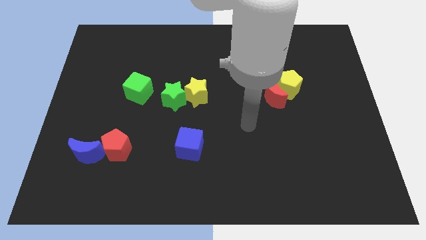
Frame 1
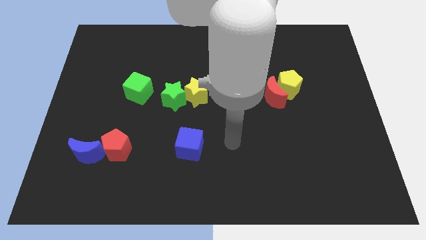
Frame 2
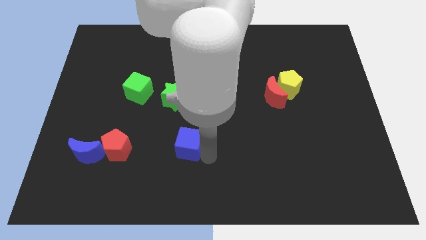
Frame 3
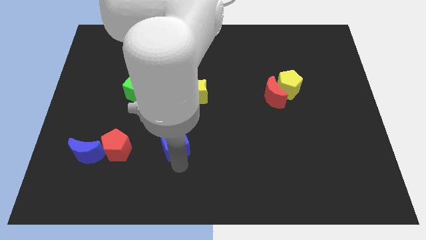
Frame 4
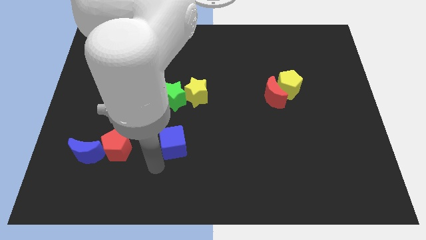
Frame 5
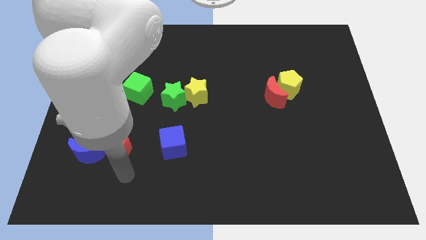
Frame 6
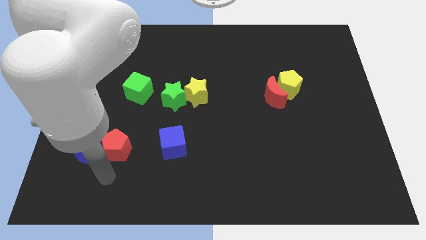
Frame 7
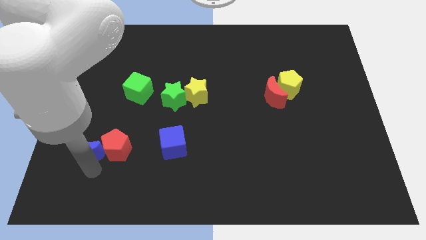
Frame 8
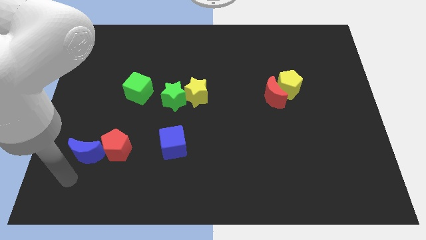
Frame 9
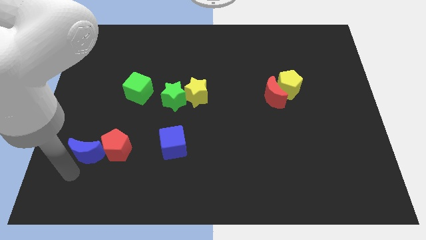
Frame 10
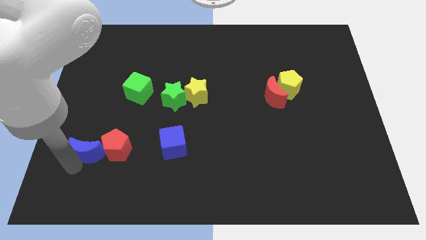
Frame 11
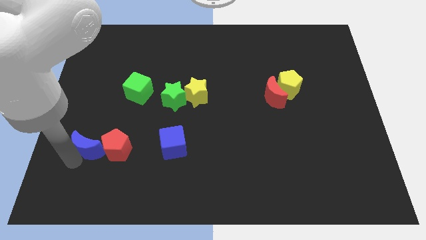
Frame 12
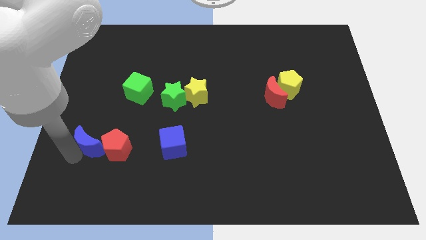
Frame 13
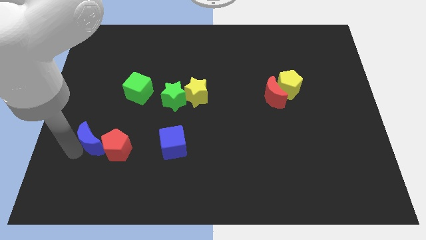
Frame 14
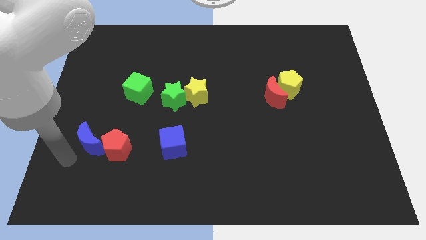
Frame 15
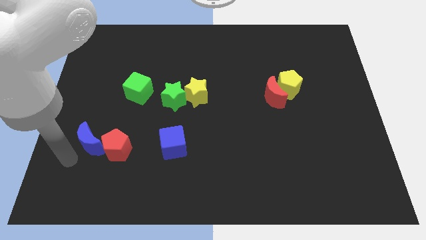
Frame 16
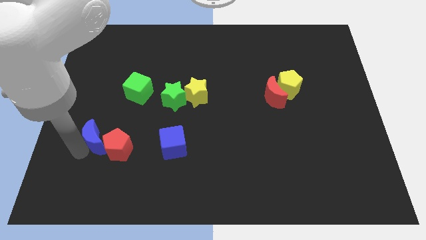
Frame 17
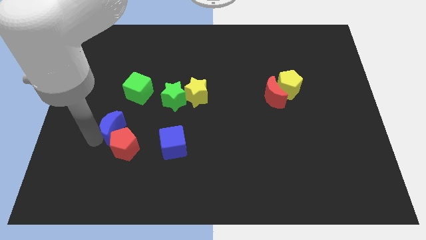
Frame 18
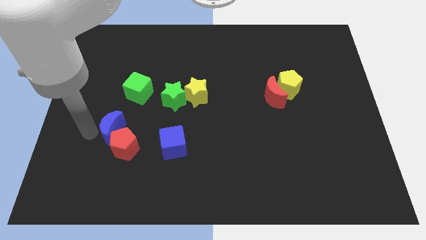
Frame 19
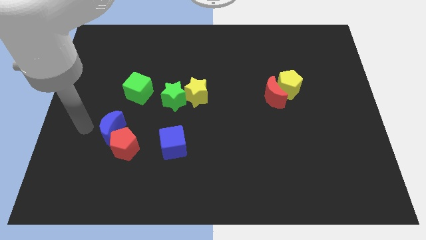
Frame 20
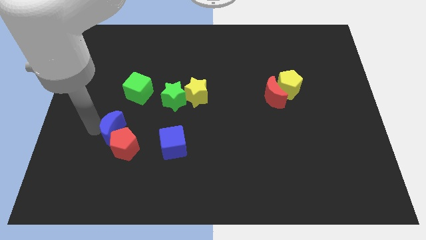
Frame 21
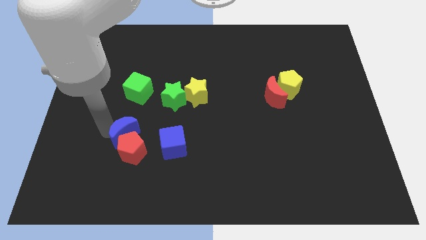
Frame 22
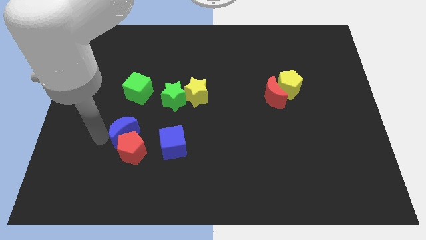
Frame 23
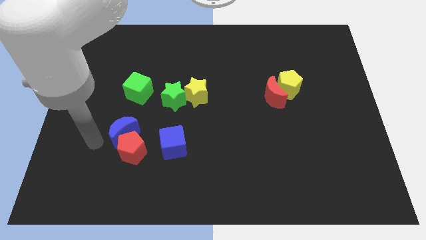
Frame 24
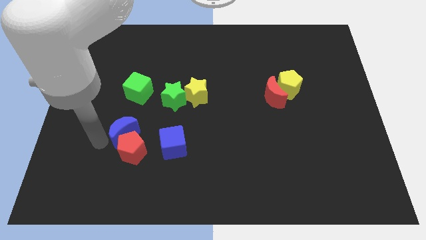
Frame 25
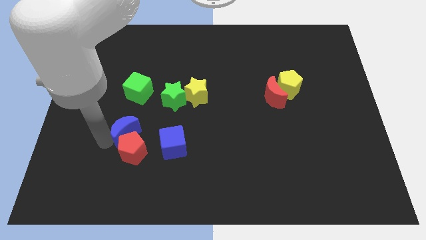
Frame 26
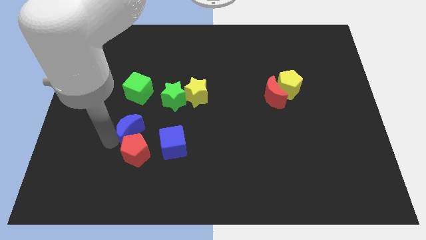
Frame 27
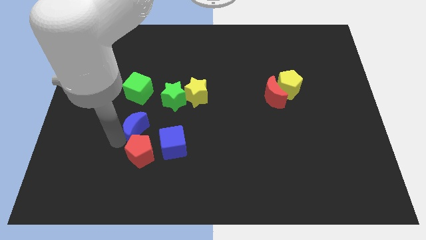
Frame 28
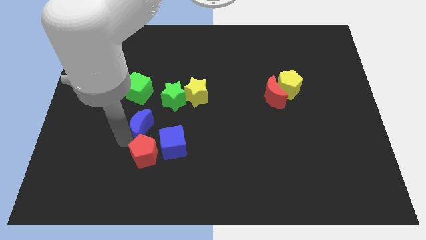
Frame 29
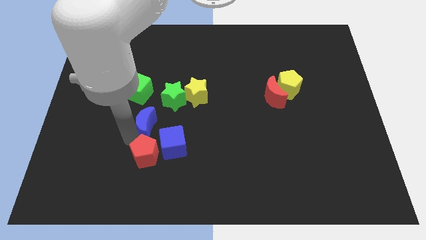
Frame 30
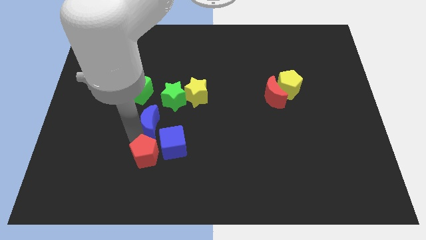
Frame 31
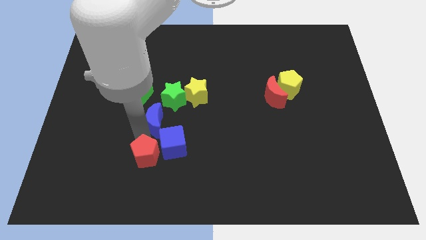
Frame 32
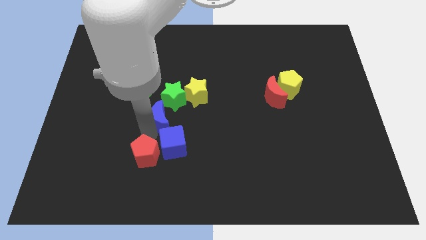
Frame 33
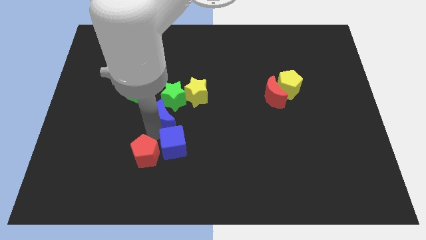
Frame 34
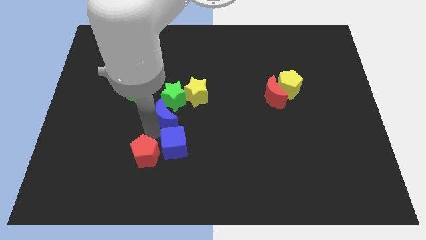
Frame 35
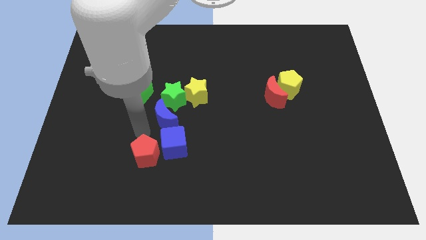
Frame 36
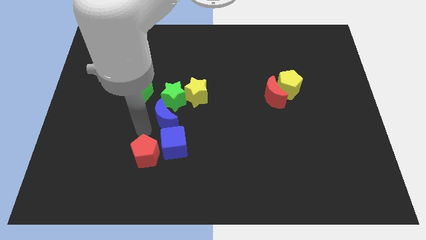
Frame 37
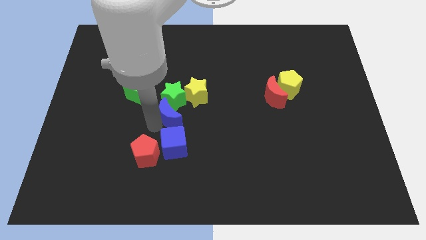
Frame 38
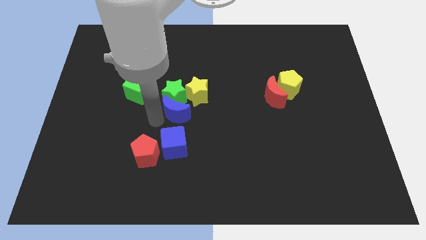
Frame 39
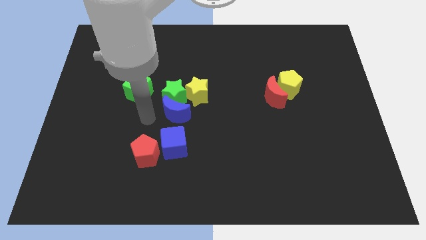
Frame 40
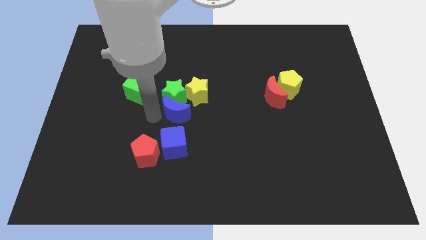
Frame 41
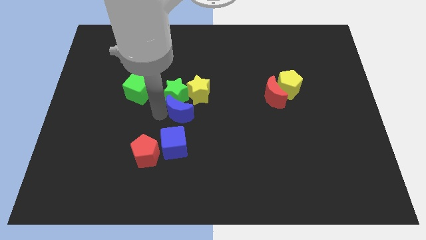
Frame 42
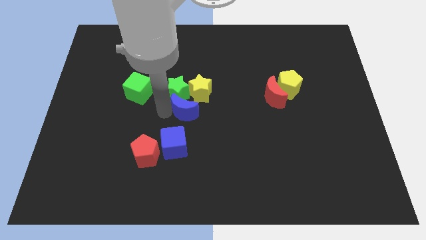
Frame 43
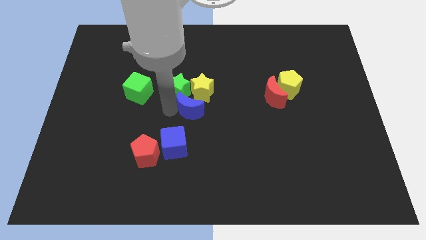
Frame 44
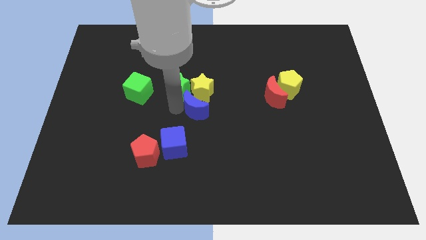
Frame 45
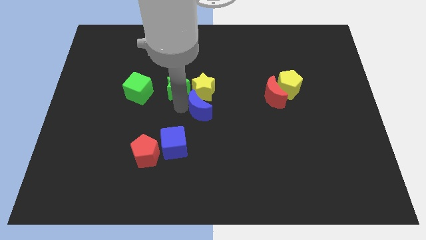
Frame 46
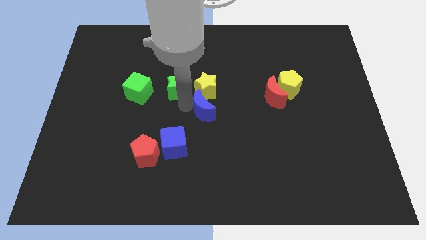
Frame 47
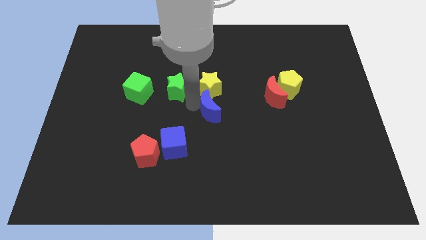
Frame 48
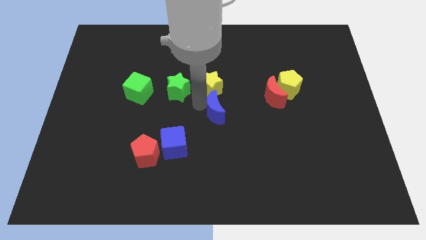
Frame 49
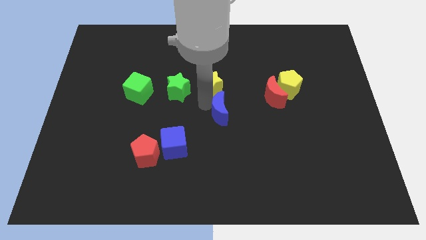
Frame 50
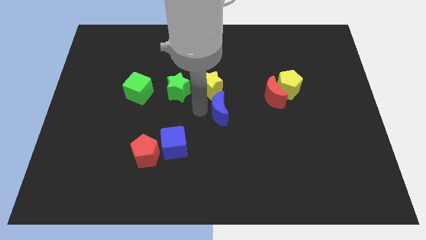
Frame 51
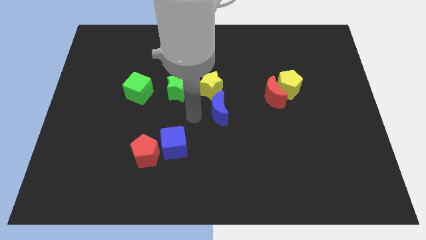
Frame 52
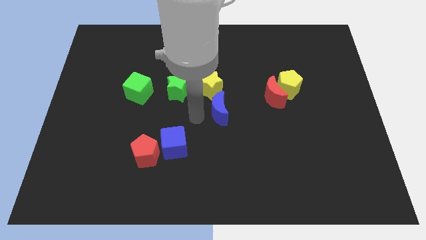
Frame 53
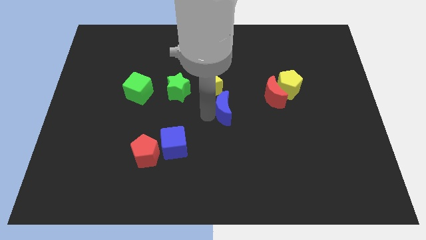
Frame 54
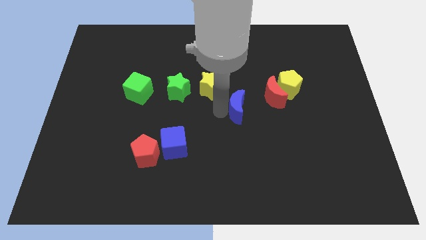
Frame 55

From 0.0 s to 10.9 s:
slide the blue moon to the bottom left side of the red moon

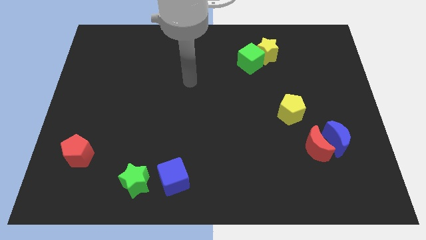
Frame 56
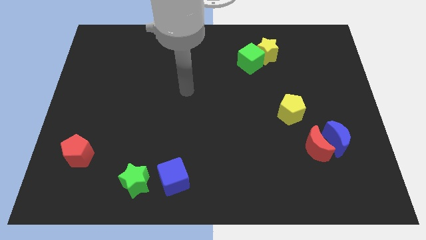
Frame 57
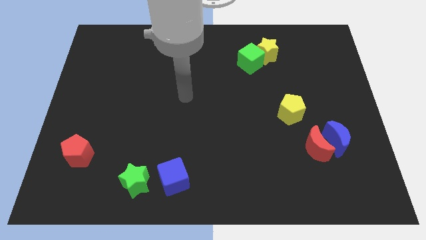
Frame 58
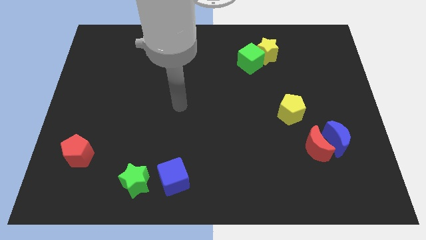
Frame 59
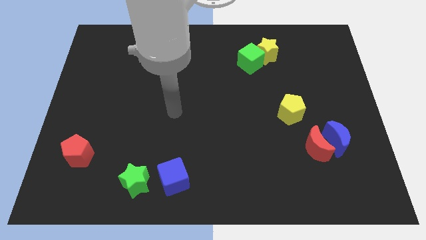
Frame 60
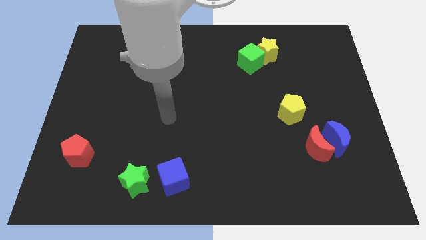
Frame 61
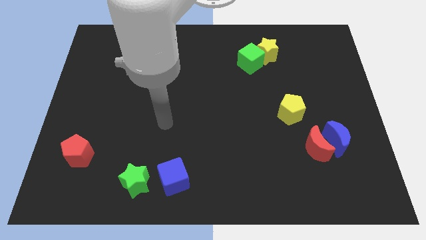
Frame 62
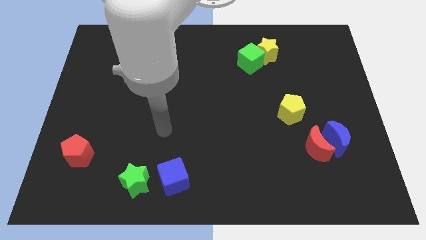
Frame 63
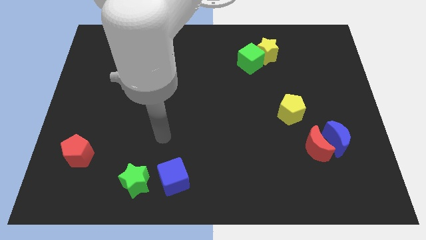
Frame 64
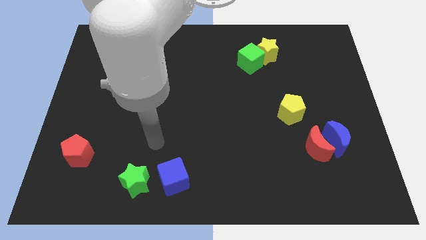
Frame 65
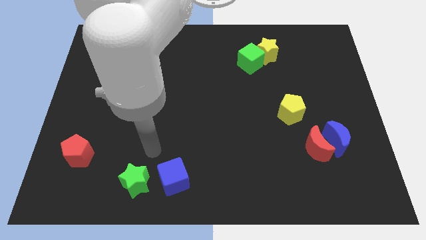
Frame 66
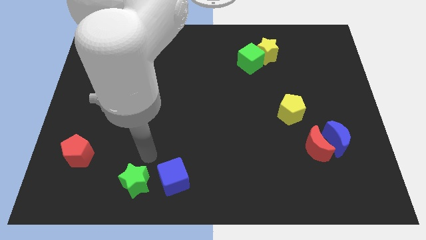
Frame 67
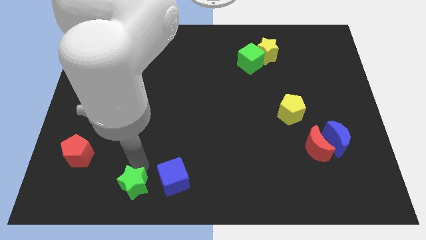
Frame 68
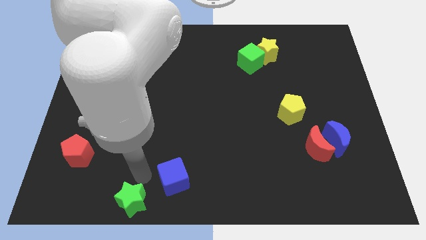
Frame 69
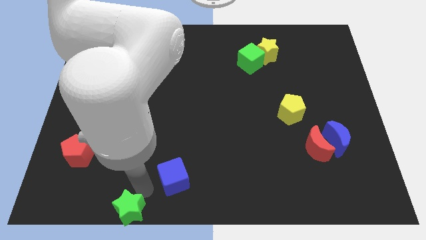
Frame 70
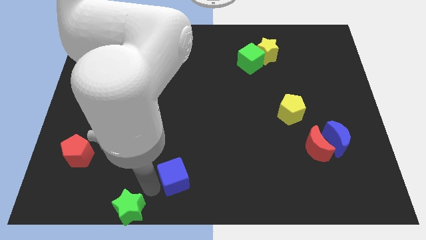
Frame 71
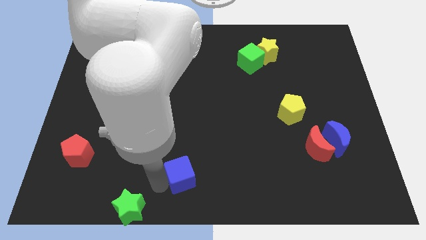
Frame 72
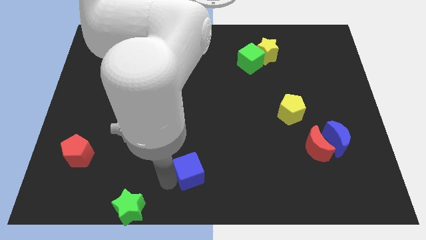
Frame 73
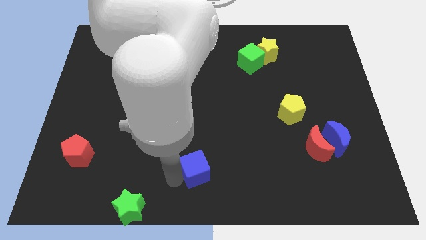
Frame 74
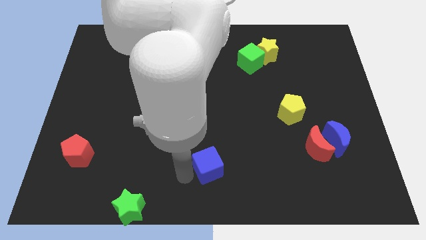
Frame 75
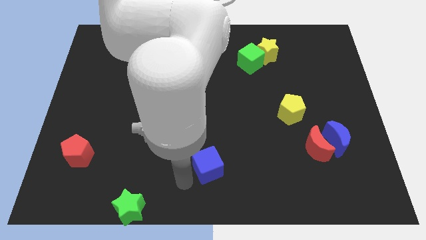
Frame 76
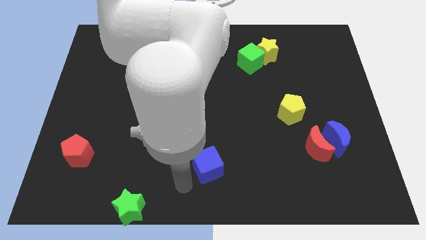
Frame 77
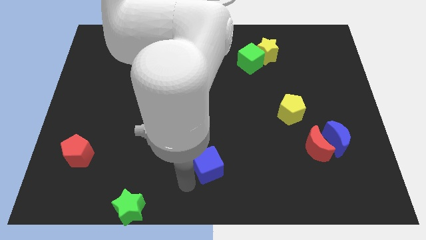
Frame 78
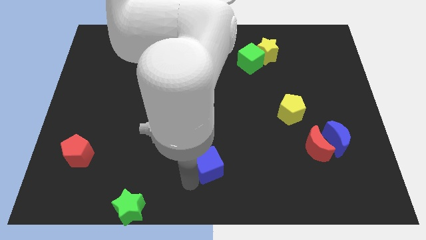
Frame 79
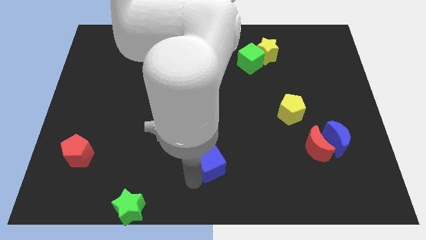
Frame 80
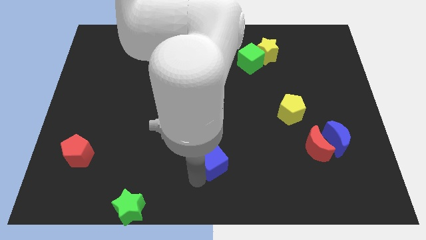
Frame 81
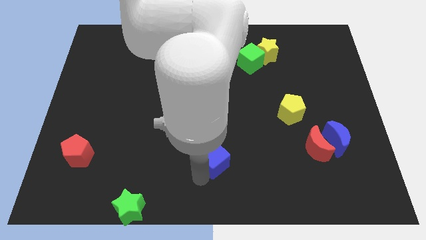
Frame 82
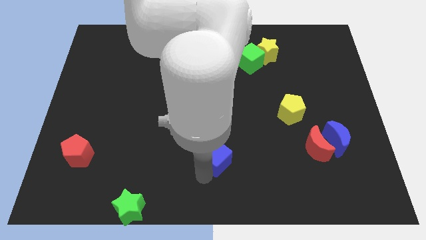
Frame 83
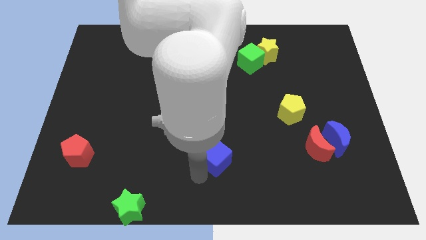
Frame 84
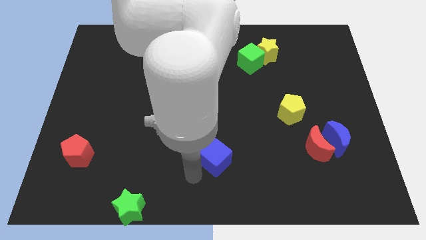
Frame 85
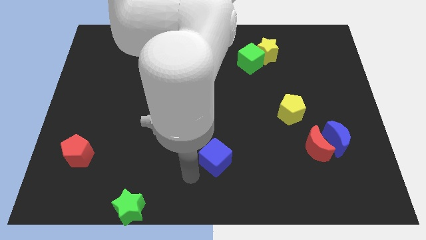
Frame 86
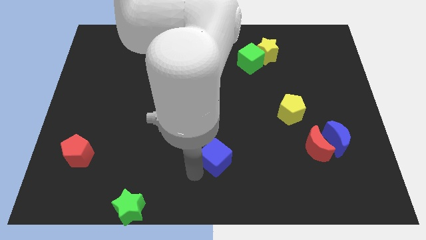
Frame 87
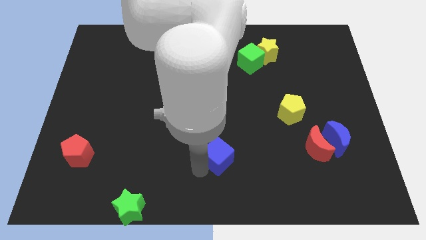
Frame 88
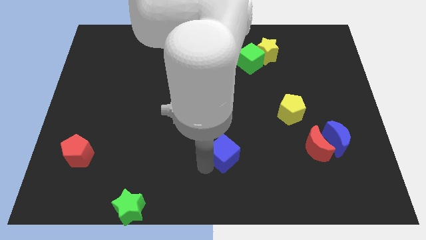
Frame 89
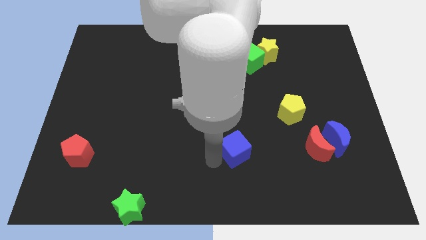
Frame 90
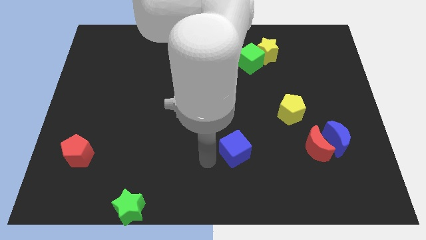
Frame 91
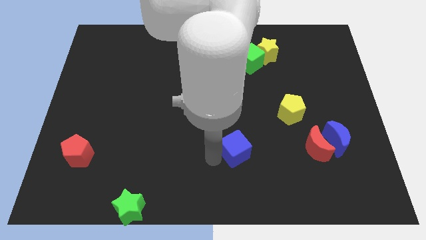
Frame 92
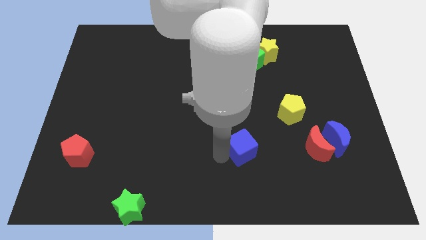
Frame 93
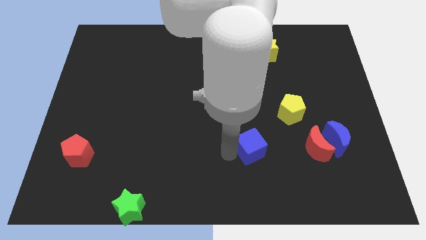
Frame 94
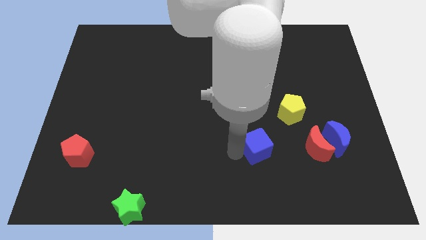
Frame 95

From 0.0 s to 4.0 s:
move the blue cube to the bottom left side of the yellow pentagon
